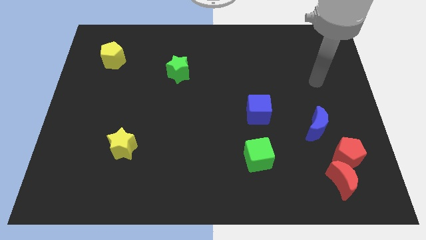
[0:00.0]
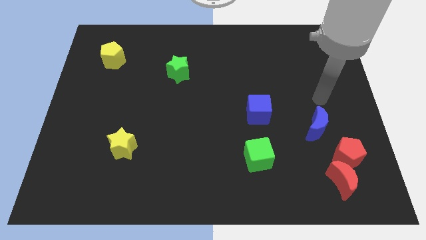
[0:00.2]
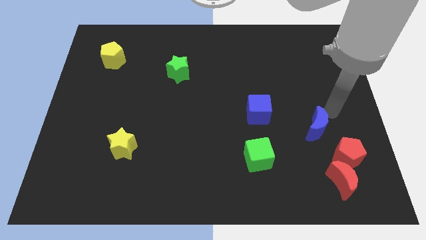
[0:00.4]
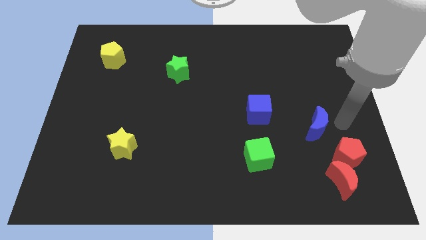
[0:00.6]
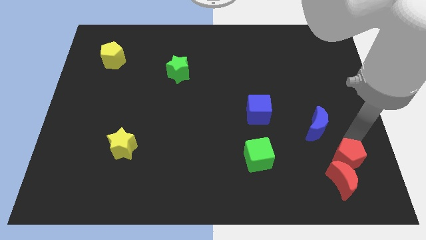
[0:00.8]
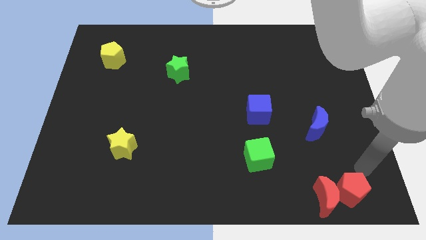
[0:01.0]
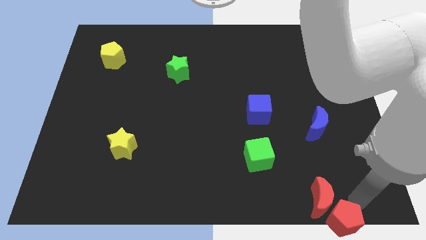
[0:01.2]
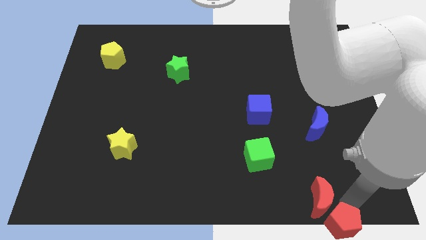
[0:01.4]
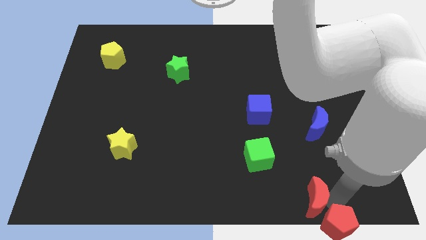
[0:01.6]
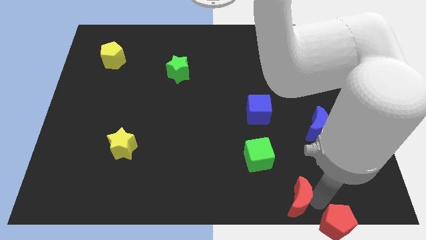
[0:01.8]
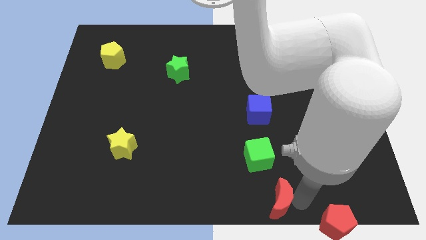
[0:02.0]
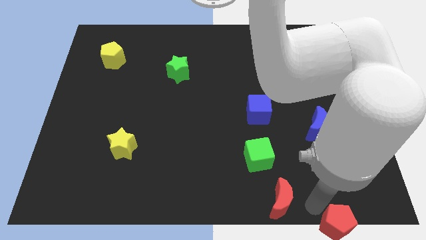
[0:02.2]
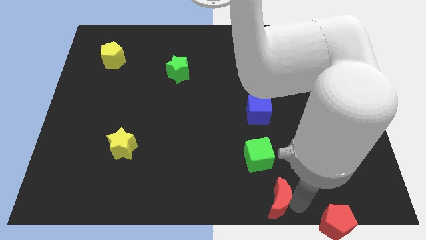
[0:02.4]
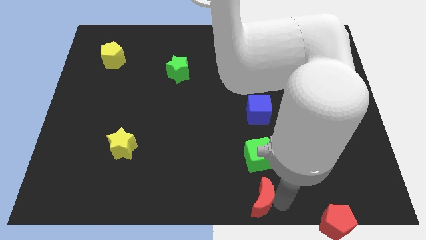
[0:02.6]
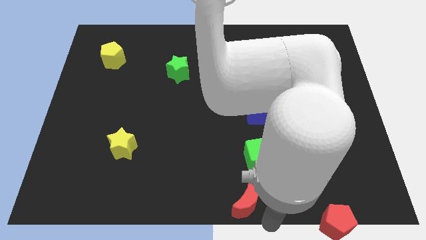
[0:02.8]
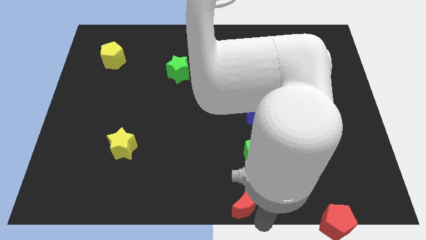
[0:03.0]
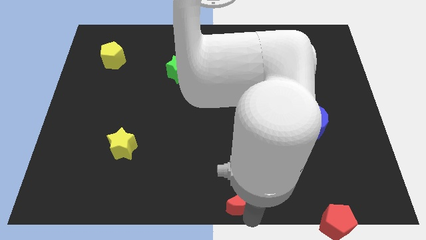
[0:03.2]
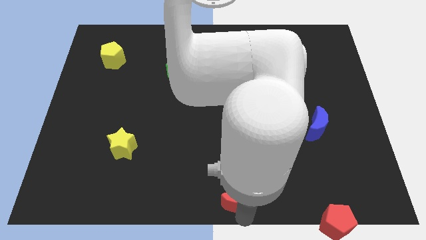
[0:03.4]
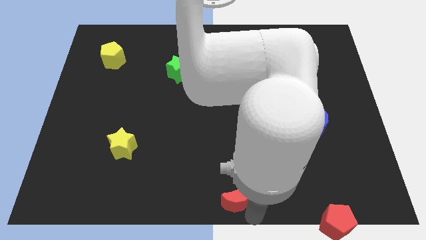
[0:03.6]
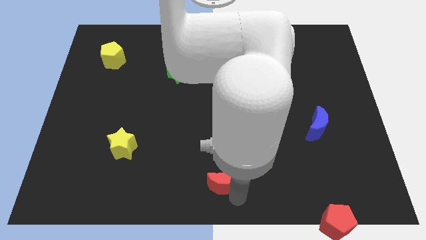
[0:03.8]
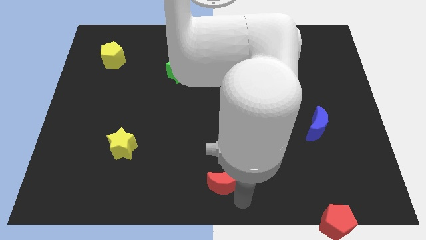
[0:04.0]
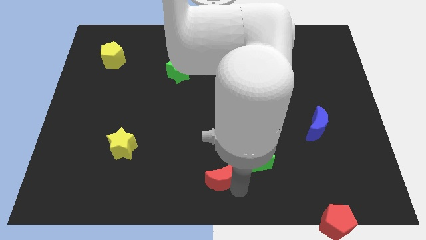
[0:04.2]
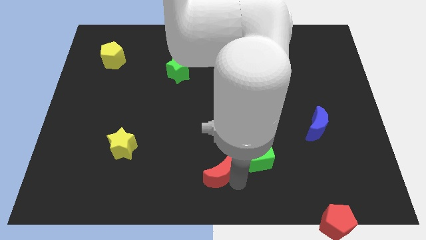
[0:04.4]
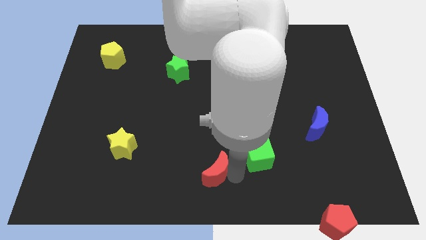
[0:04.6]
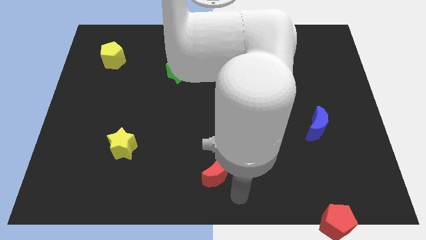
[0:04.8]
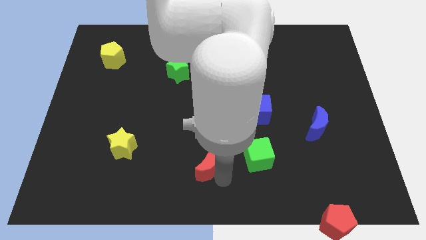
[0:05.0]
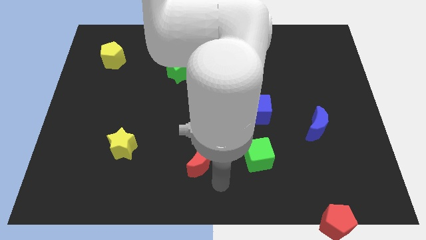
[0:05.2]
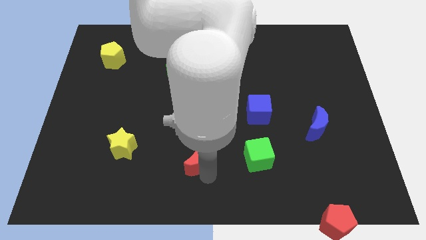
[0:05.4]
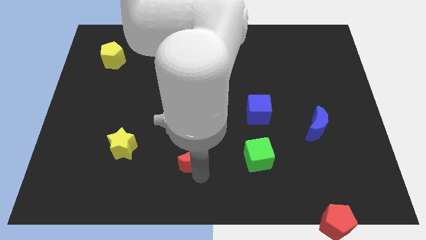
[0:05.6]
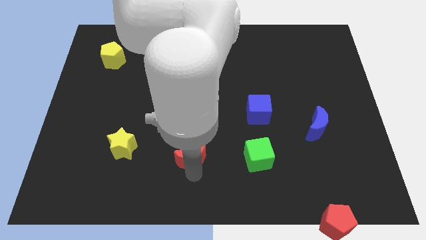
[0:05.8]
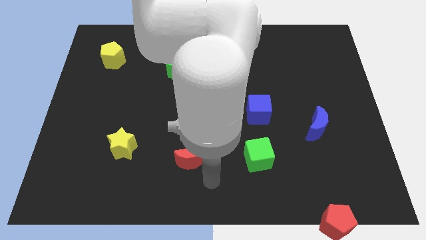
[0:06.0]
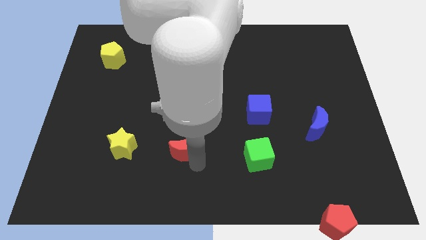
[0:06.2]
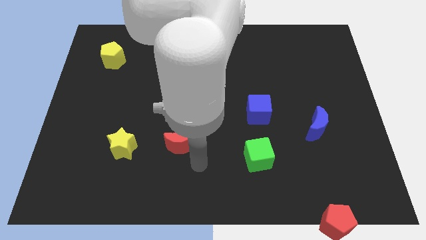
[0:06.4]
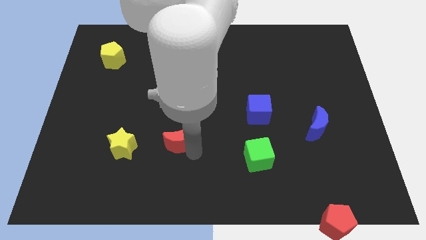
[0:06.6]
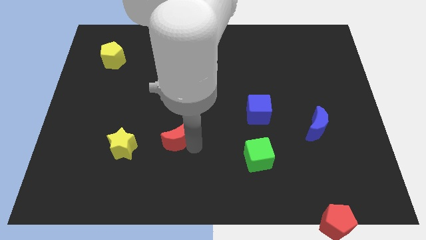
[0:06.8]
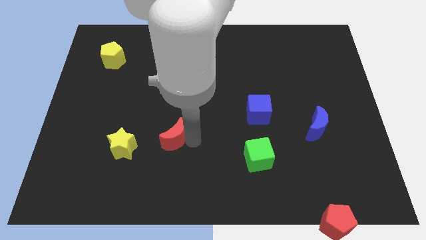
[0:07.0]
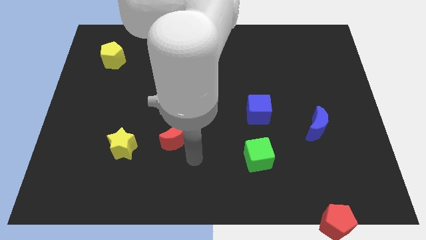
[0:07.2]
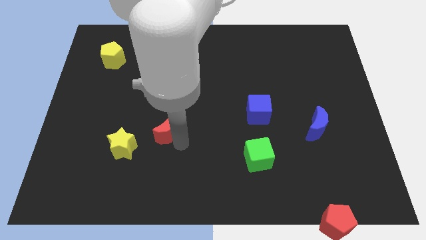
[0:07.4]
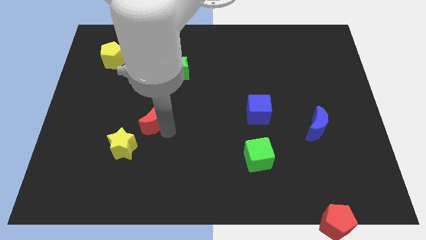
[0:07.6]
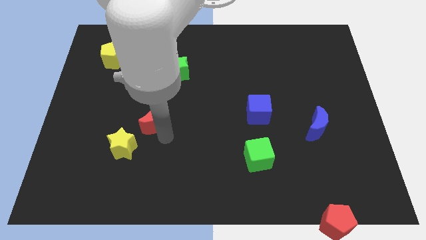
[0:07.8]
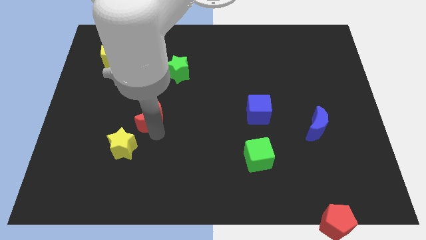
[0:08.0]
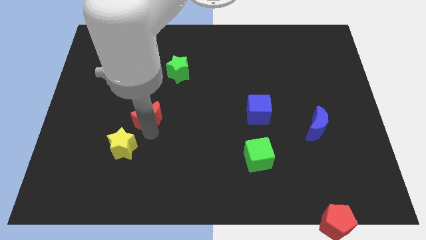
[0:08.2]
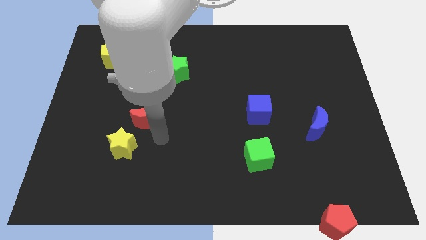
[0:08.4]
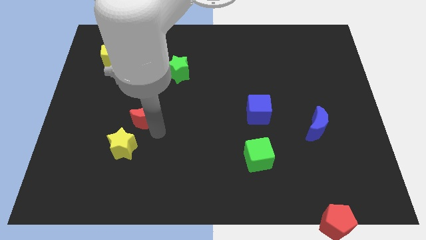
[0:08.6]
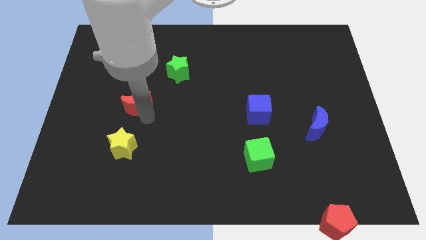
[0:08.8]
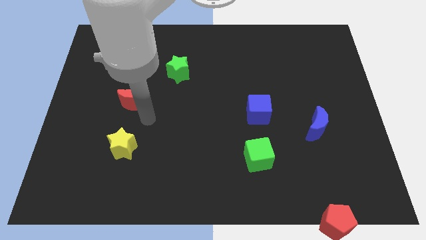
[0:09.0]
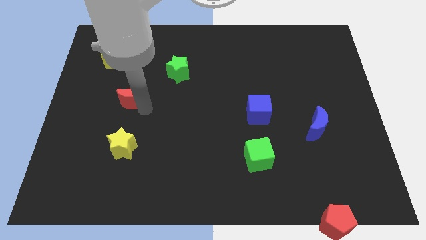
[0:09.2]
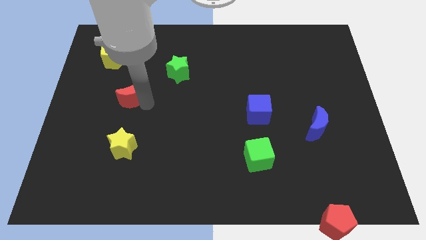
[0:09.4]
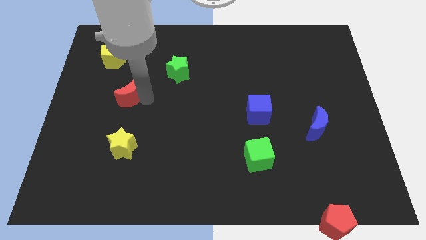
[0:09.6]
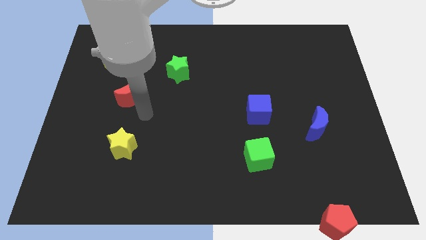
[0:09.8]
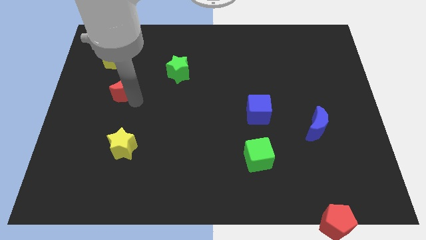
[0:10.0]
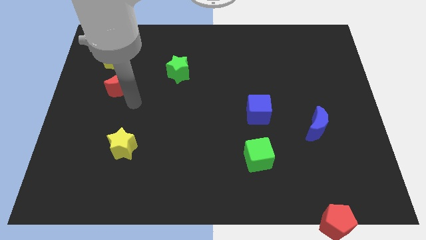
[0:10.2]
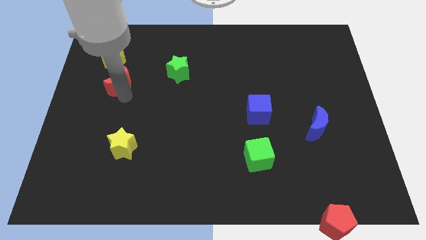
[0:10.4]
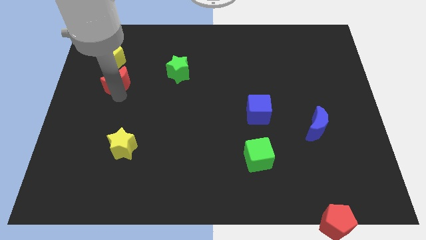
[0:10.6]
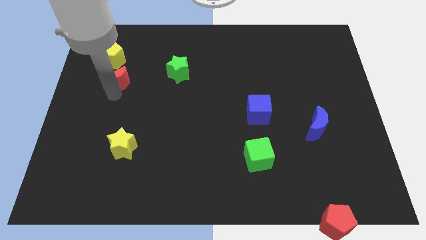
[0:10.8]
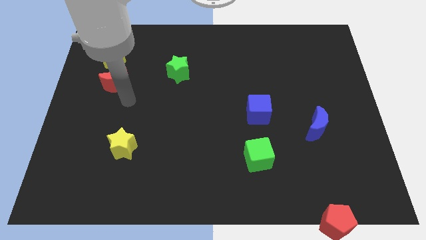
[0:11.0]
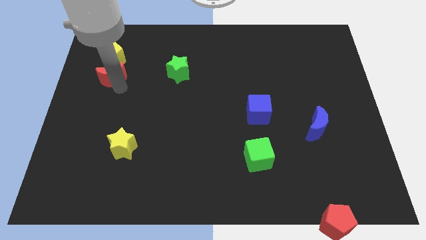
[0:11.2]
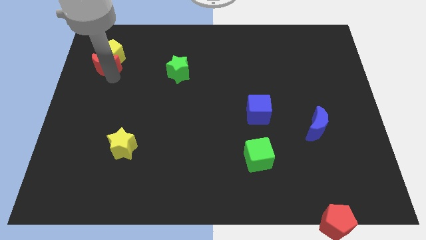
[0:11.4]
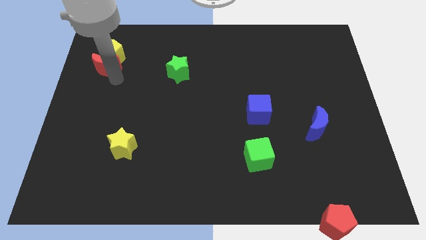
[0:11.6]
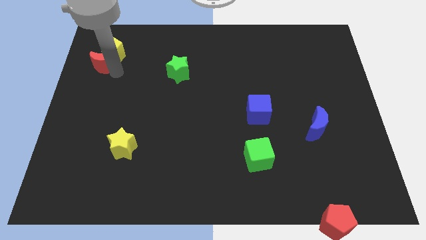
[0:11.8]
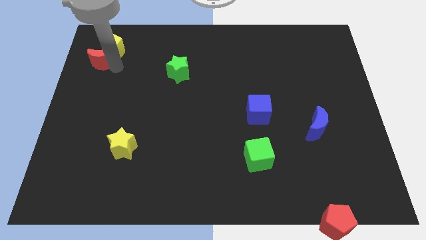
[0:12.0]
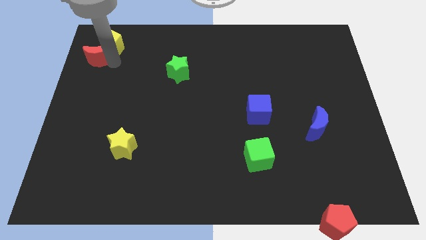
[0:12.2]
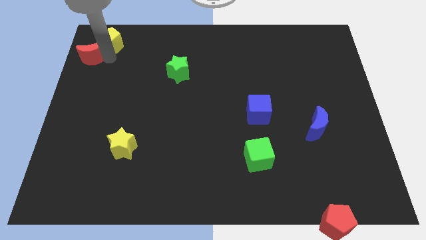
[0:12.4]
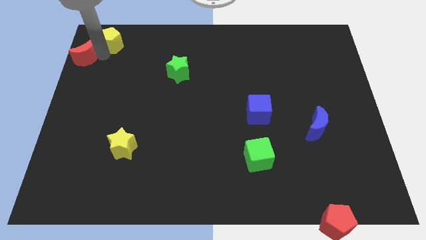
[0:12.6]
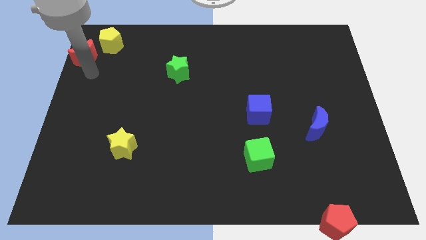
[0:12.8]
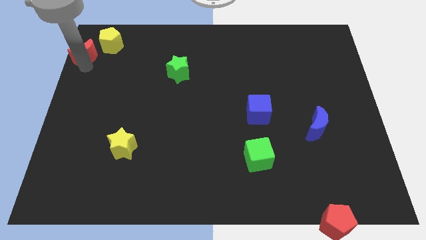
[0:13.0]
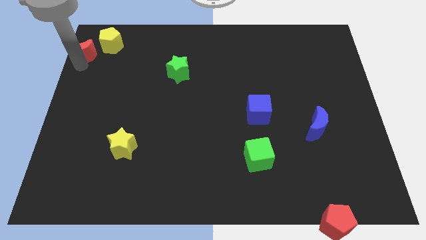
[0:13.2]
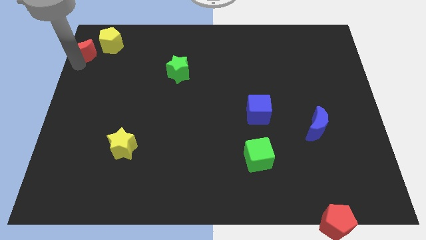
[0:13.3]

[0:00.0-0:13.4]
put the red moon to the top left of the board
